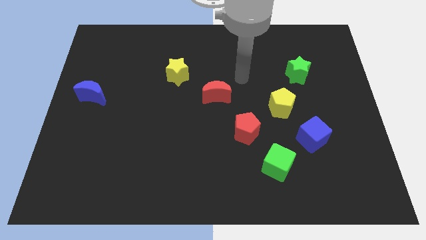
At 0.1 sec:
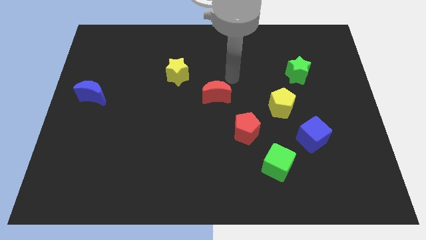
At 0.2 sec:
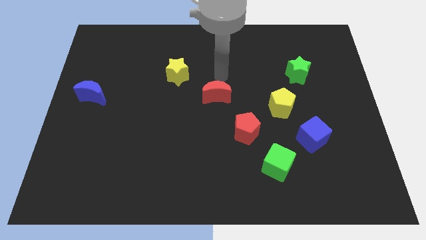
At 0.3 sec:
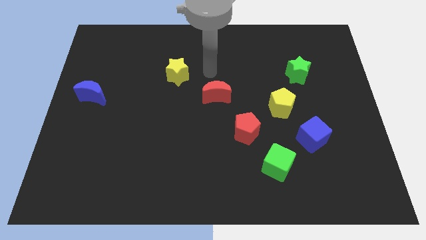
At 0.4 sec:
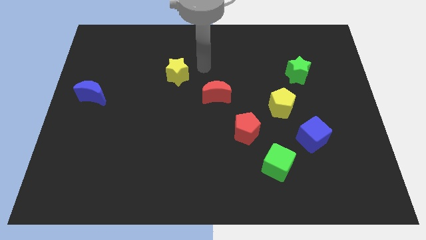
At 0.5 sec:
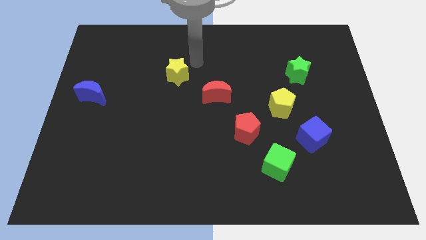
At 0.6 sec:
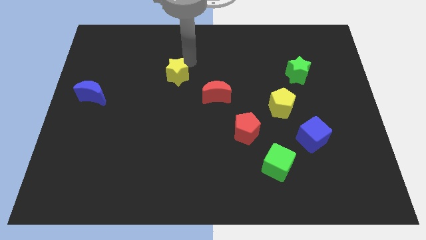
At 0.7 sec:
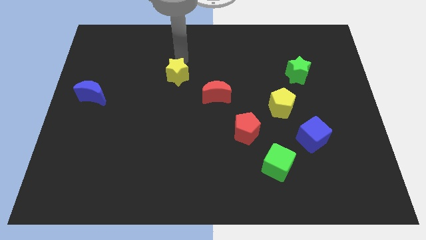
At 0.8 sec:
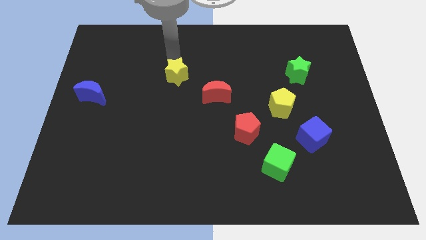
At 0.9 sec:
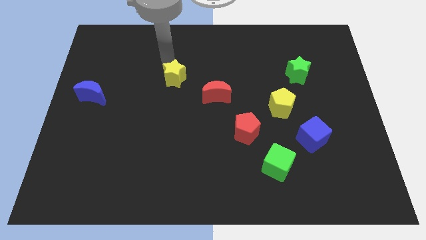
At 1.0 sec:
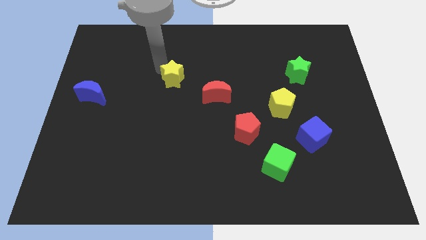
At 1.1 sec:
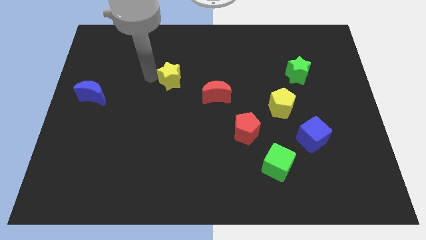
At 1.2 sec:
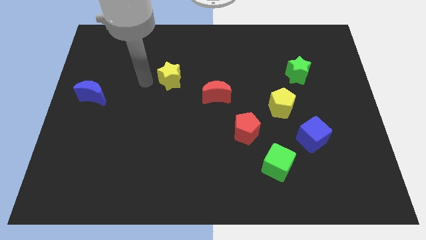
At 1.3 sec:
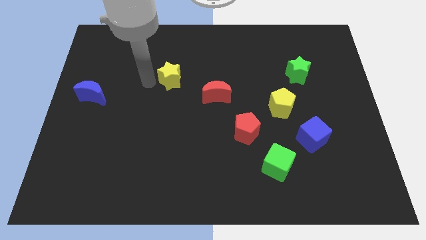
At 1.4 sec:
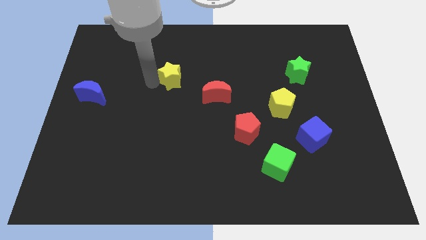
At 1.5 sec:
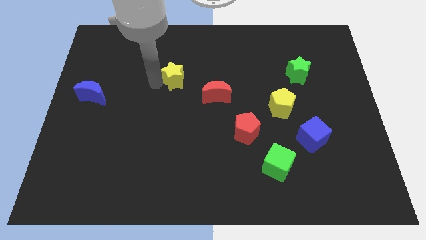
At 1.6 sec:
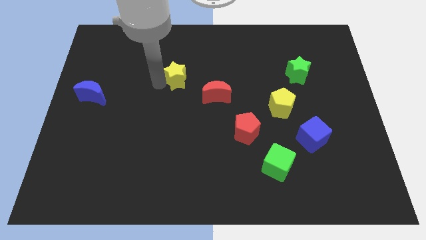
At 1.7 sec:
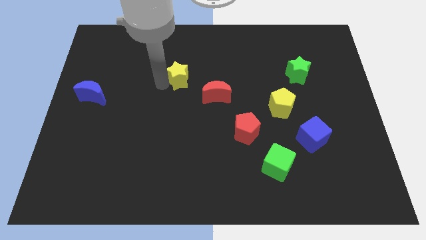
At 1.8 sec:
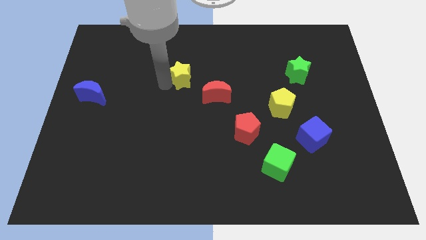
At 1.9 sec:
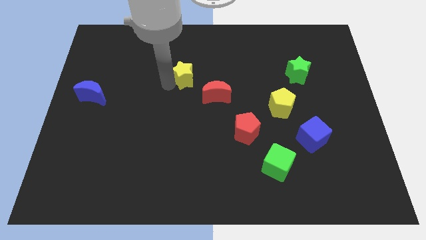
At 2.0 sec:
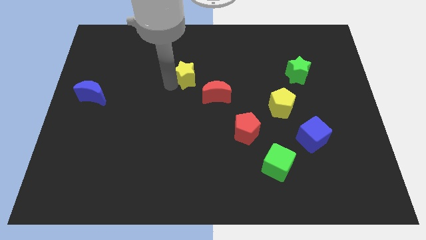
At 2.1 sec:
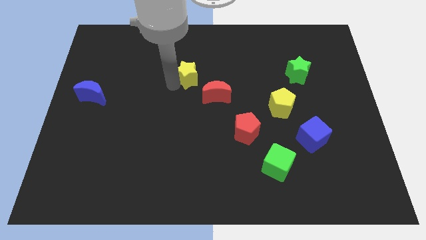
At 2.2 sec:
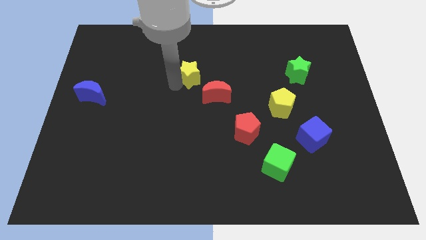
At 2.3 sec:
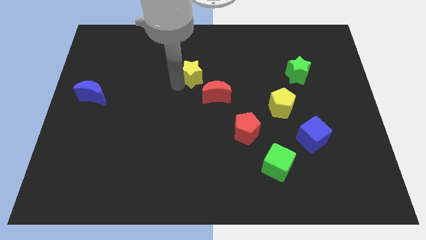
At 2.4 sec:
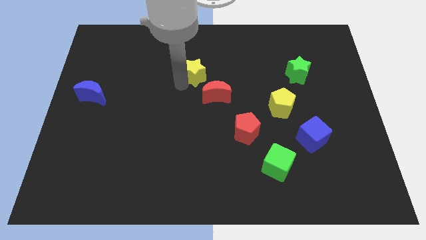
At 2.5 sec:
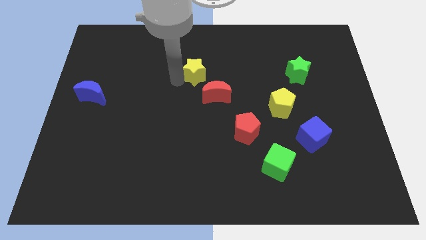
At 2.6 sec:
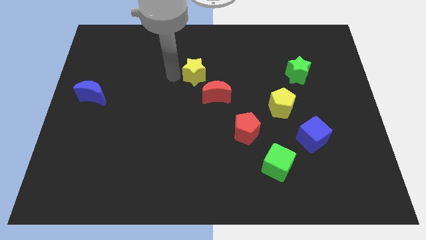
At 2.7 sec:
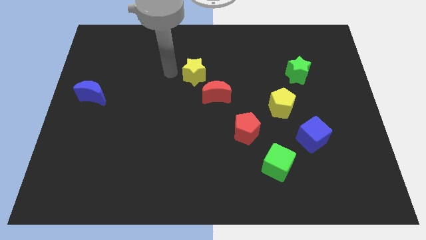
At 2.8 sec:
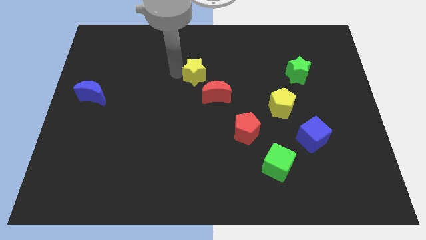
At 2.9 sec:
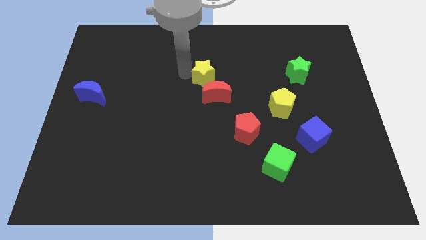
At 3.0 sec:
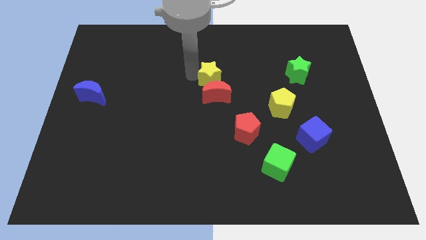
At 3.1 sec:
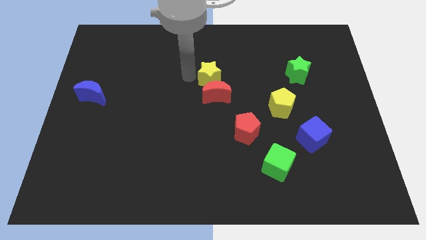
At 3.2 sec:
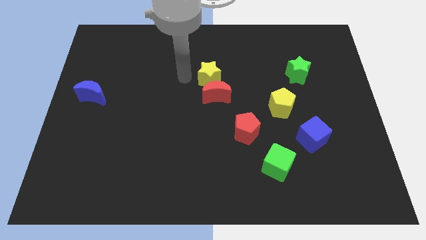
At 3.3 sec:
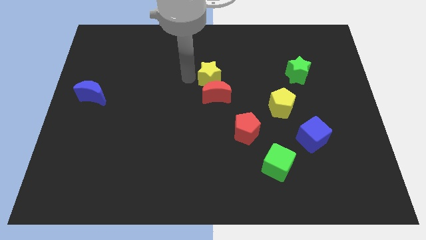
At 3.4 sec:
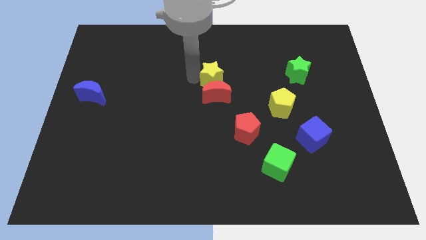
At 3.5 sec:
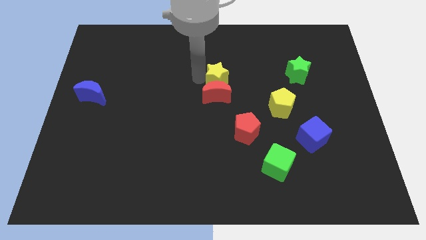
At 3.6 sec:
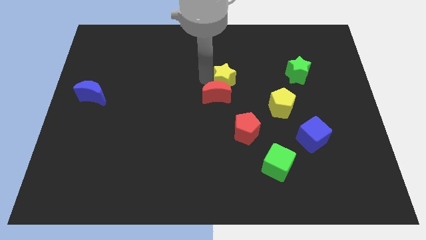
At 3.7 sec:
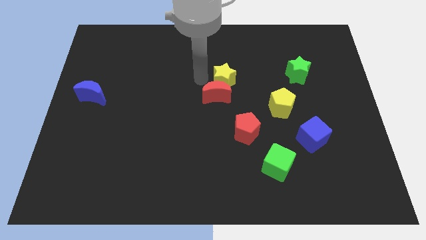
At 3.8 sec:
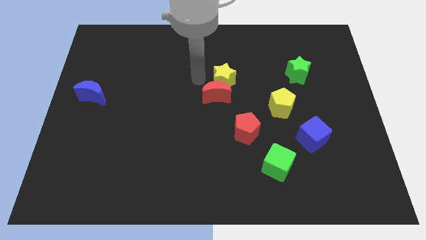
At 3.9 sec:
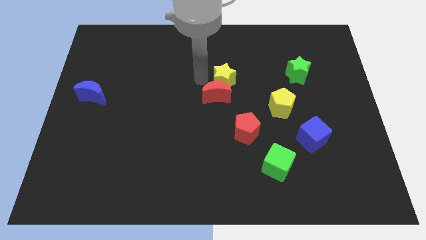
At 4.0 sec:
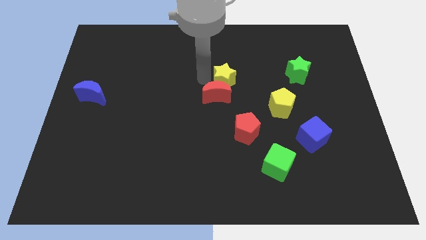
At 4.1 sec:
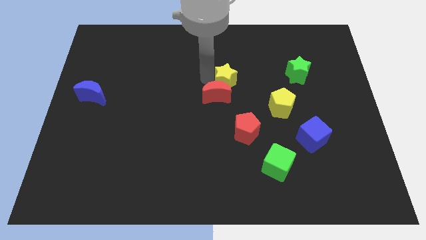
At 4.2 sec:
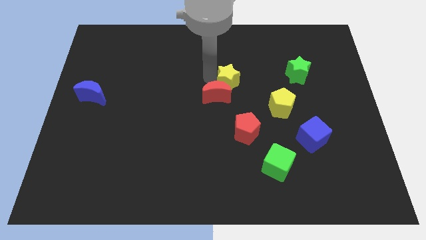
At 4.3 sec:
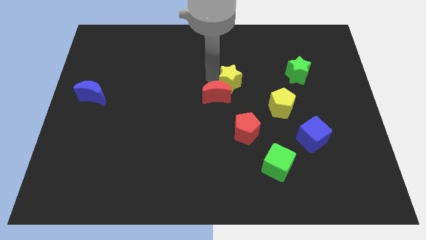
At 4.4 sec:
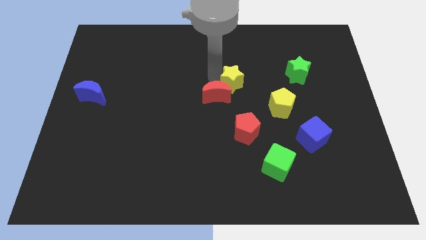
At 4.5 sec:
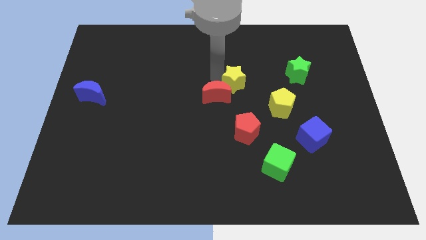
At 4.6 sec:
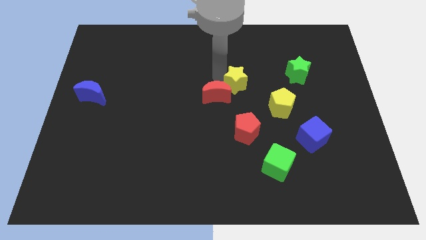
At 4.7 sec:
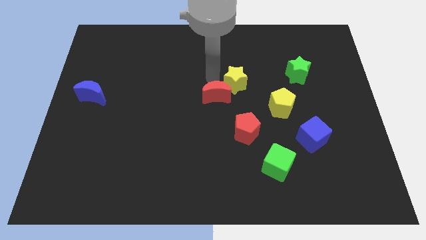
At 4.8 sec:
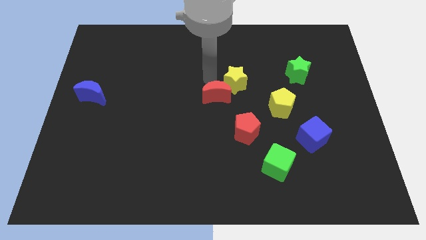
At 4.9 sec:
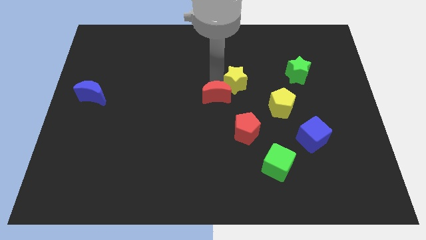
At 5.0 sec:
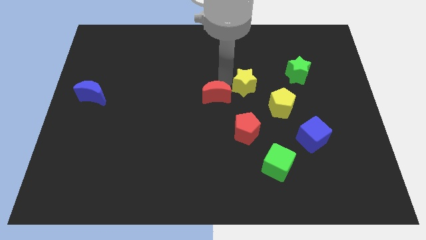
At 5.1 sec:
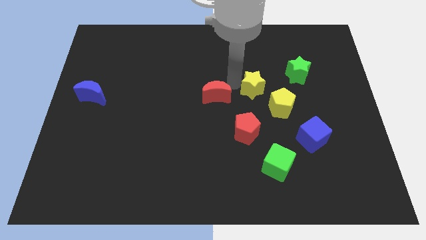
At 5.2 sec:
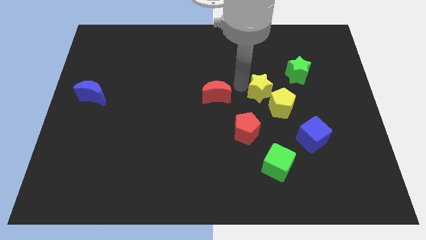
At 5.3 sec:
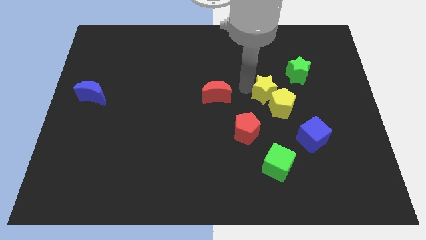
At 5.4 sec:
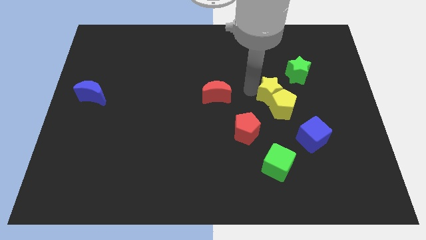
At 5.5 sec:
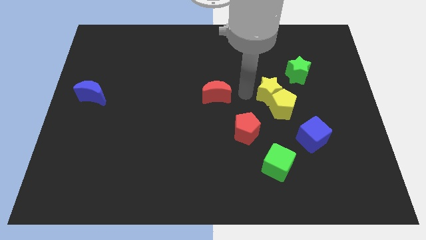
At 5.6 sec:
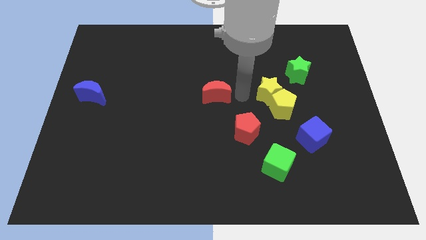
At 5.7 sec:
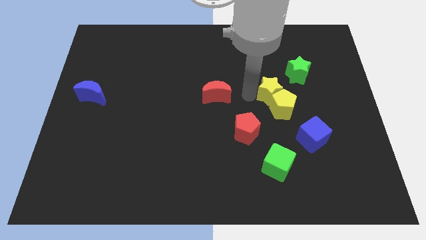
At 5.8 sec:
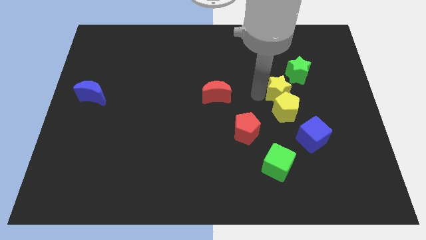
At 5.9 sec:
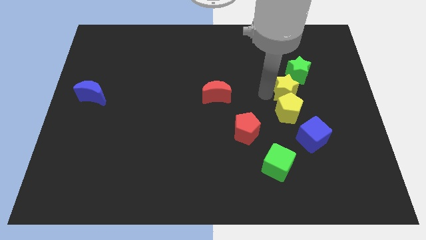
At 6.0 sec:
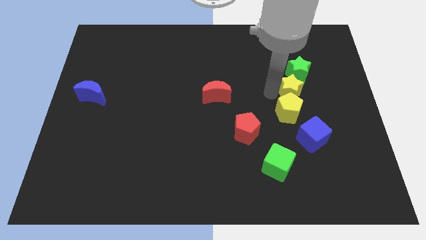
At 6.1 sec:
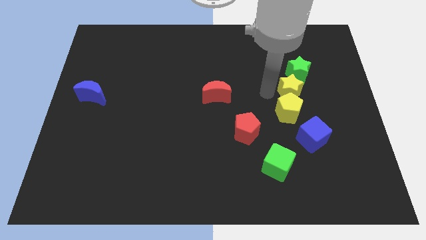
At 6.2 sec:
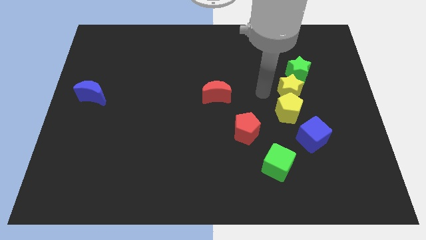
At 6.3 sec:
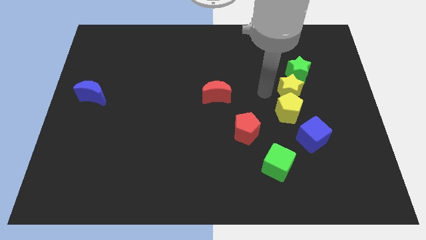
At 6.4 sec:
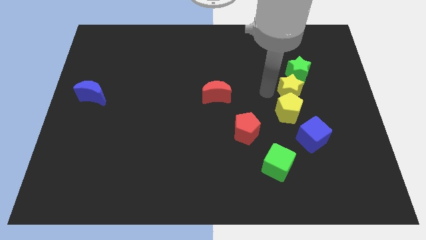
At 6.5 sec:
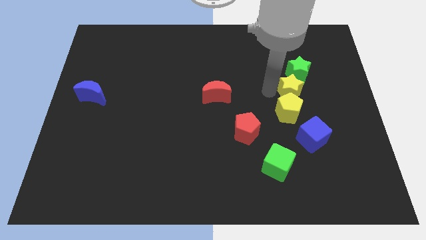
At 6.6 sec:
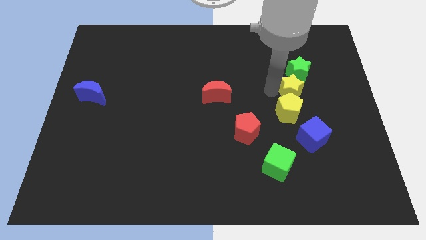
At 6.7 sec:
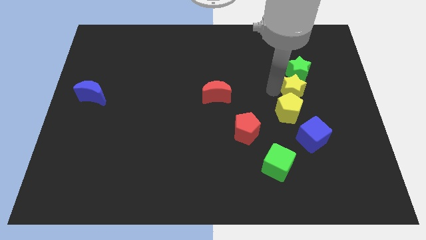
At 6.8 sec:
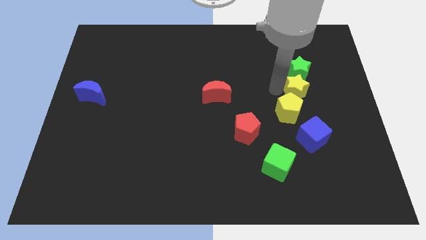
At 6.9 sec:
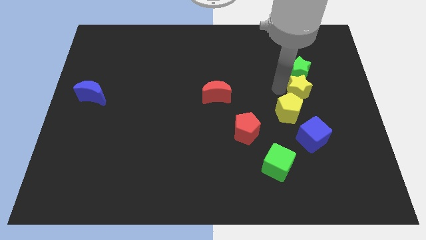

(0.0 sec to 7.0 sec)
put the yellow star to the bottom right side of the green star
